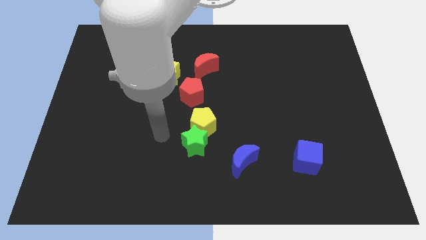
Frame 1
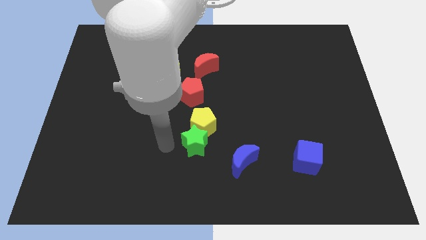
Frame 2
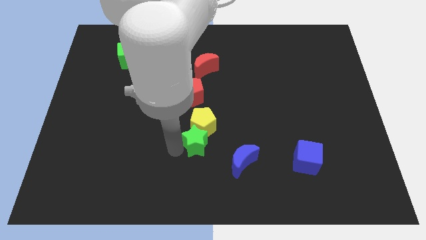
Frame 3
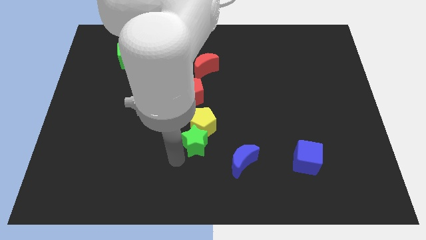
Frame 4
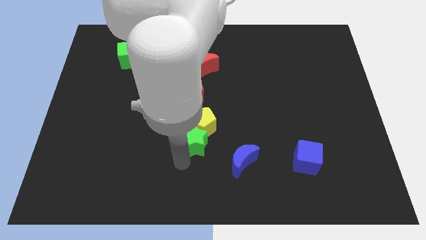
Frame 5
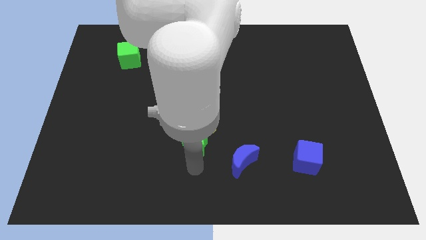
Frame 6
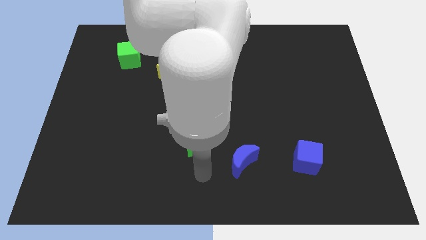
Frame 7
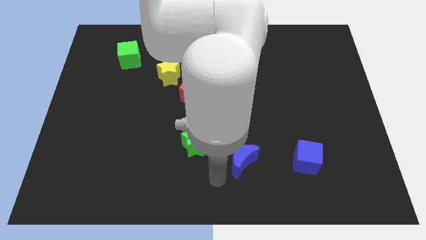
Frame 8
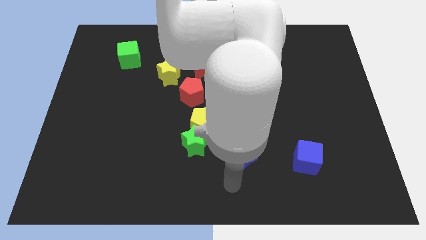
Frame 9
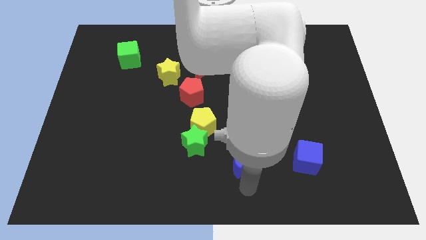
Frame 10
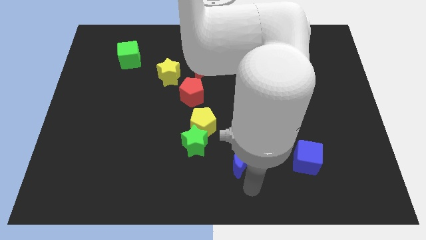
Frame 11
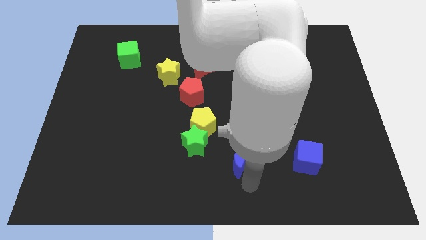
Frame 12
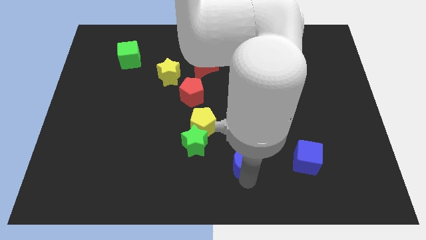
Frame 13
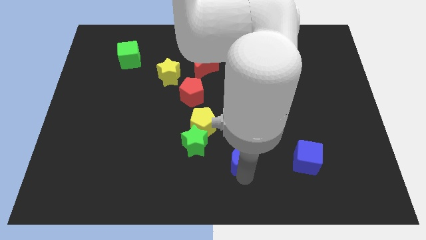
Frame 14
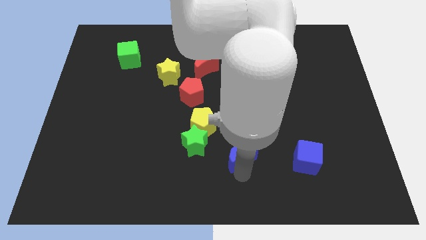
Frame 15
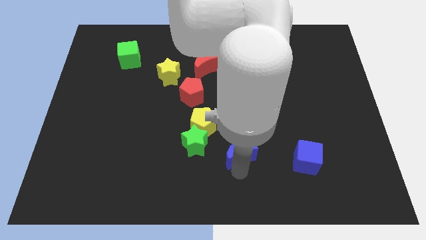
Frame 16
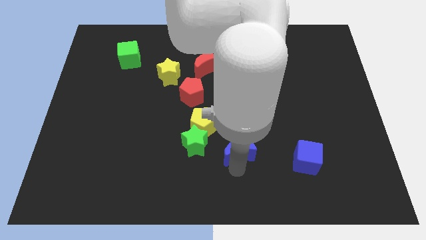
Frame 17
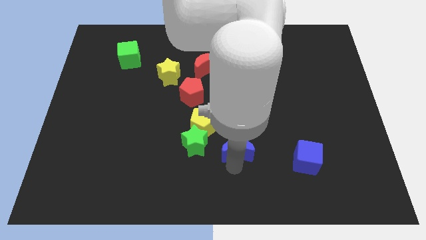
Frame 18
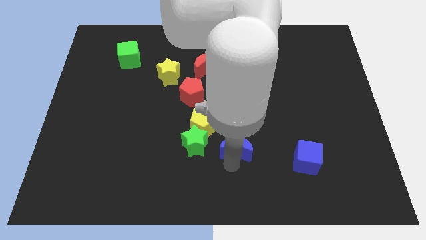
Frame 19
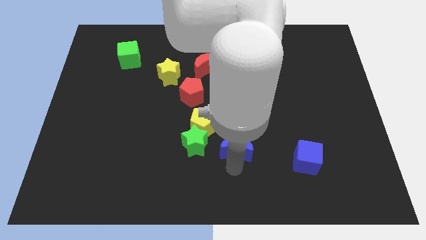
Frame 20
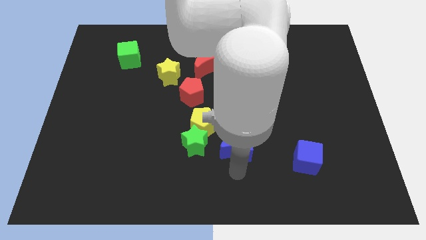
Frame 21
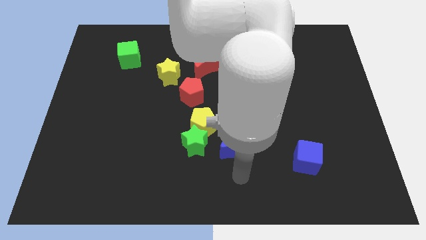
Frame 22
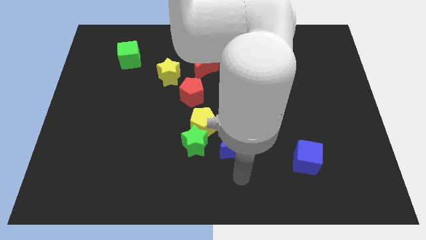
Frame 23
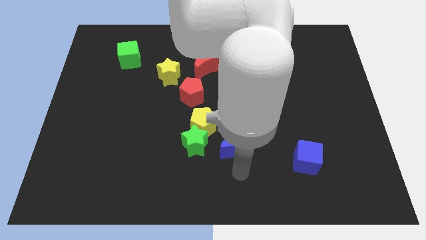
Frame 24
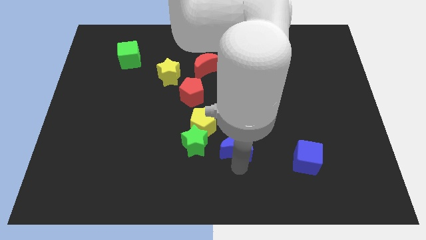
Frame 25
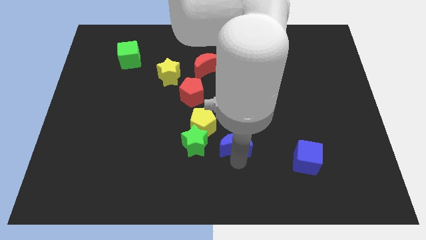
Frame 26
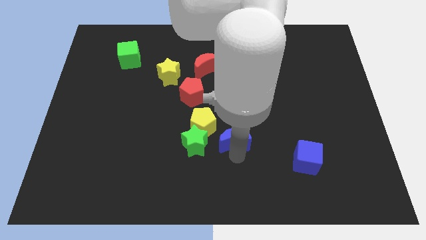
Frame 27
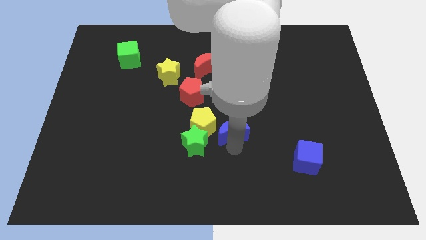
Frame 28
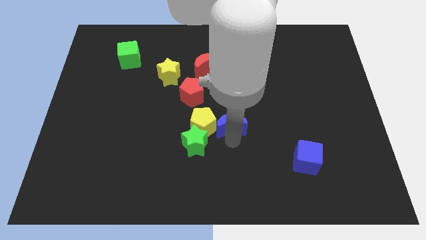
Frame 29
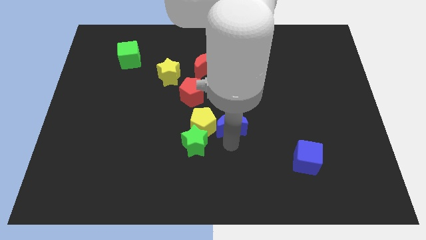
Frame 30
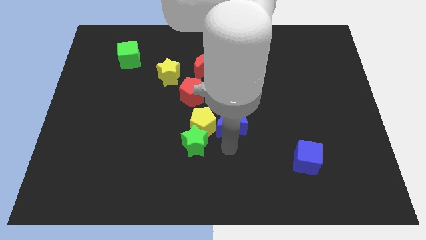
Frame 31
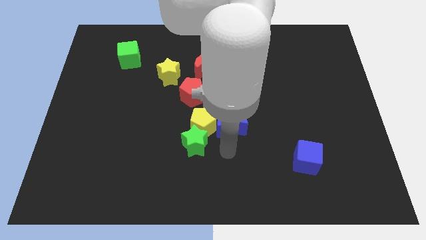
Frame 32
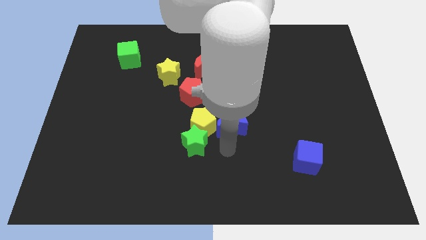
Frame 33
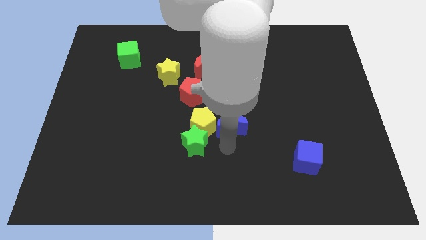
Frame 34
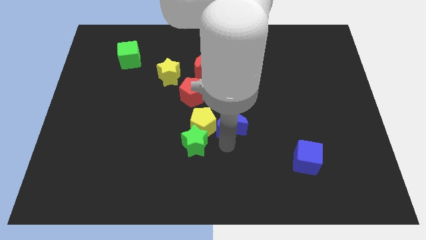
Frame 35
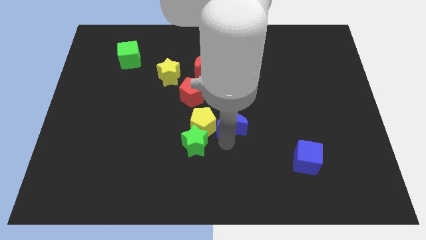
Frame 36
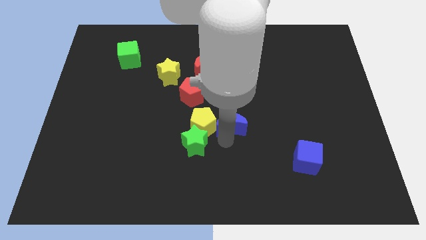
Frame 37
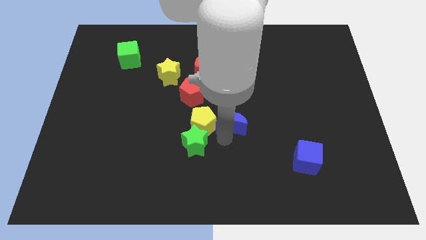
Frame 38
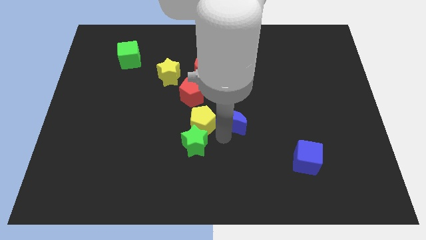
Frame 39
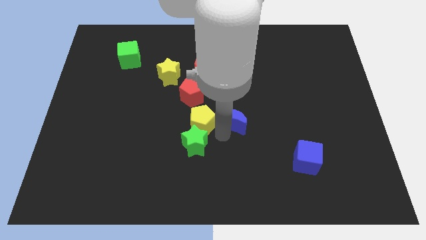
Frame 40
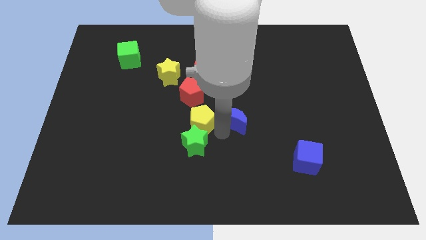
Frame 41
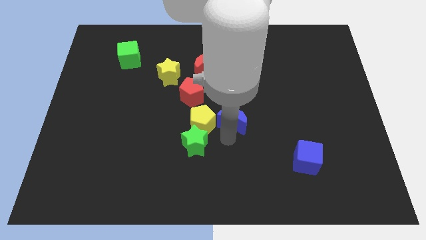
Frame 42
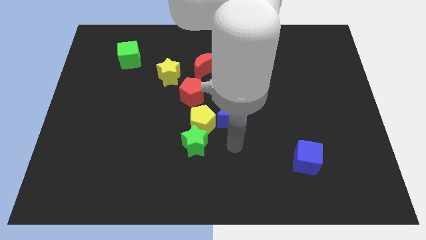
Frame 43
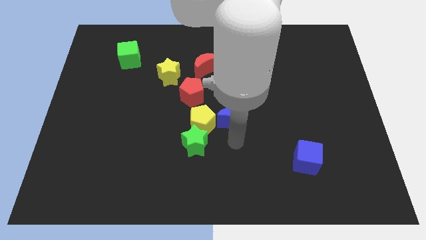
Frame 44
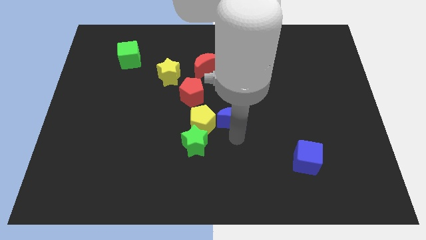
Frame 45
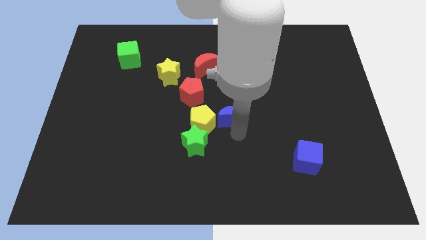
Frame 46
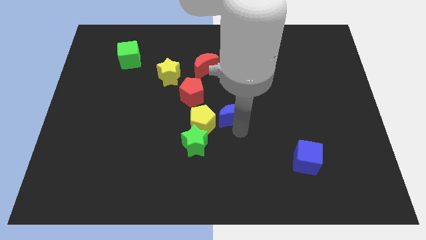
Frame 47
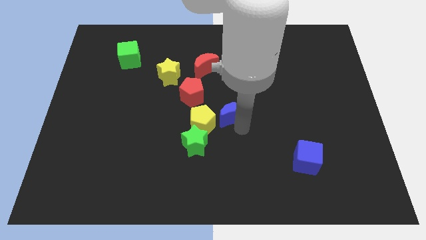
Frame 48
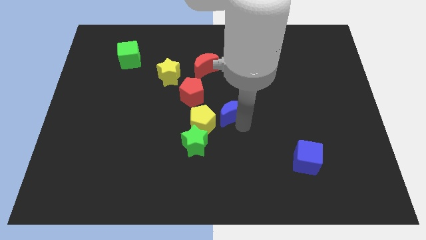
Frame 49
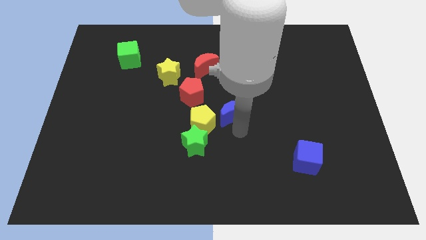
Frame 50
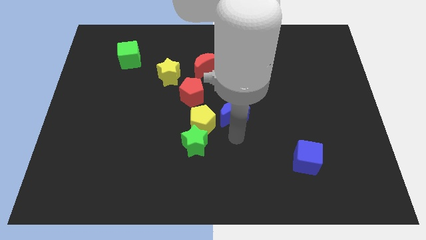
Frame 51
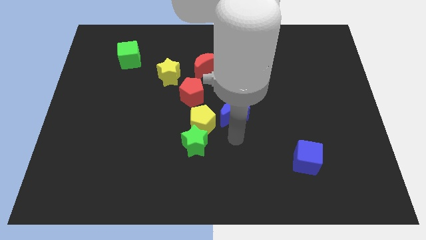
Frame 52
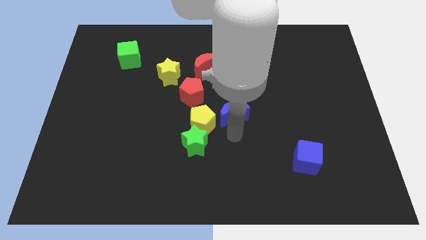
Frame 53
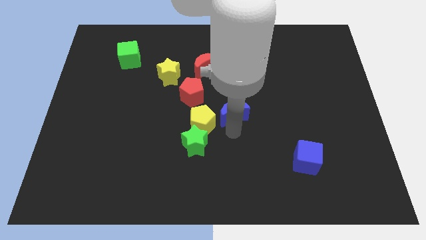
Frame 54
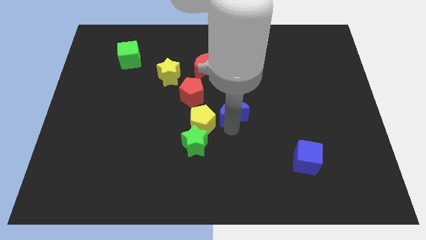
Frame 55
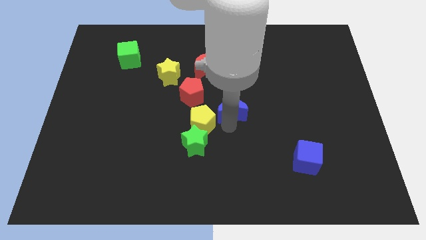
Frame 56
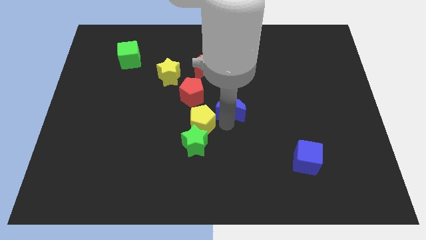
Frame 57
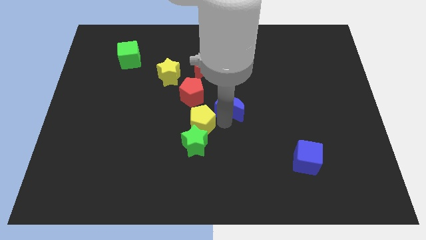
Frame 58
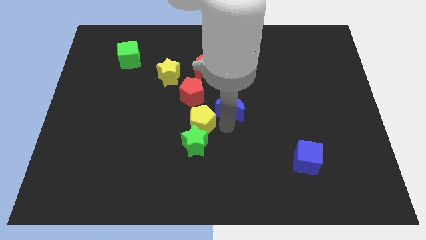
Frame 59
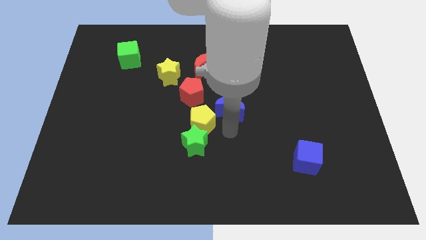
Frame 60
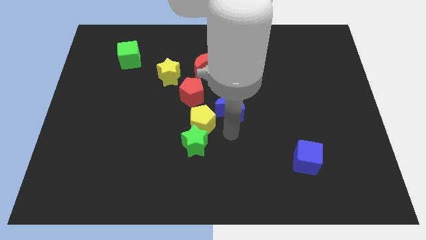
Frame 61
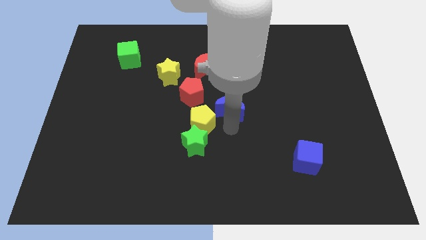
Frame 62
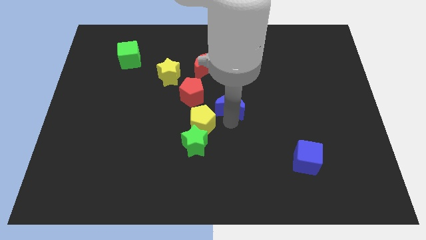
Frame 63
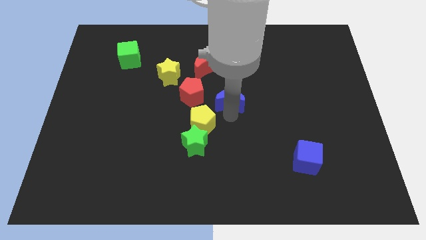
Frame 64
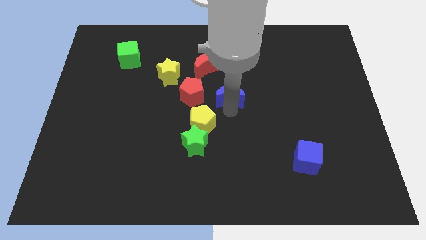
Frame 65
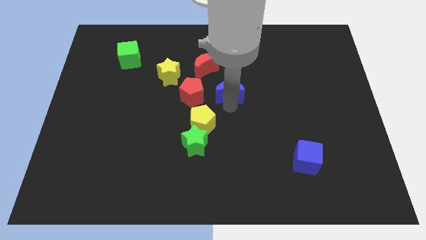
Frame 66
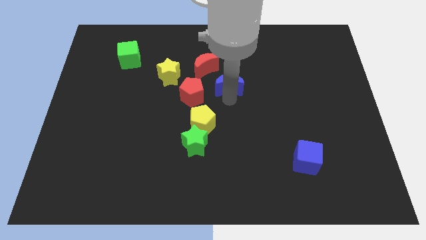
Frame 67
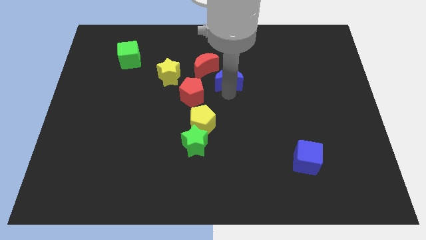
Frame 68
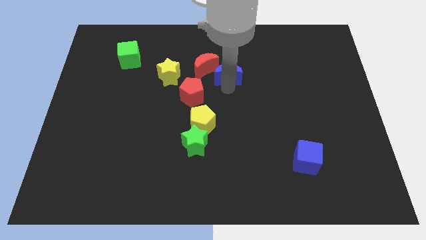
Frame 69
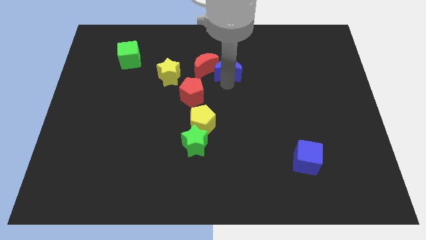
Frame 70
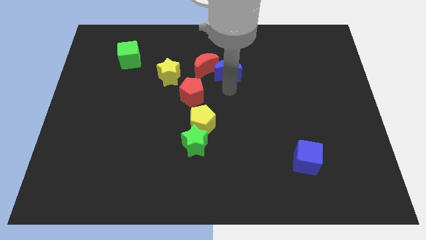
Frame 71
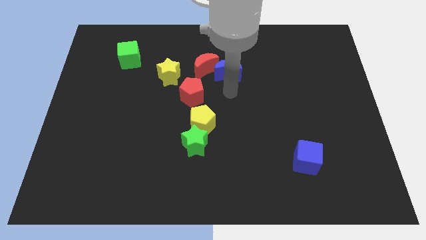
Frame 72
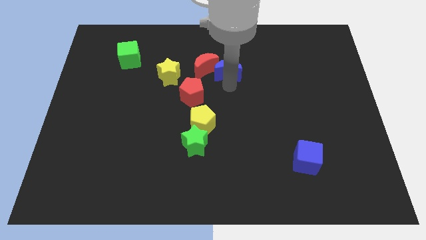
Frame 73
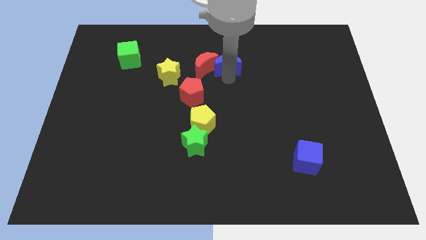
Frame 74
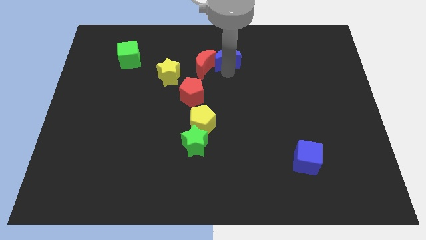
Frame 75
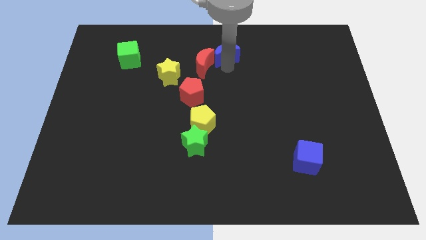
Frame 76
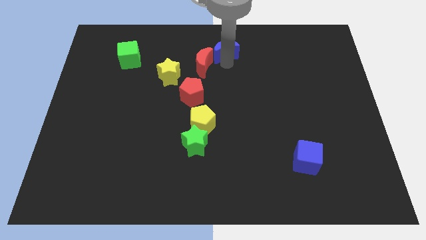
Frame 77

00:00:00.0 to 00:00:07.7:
slide the blue moon to the top
